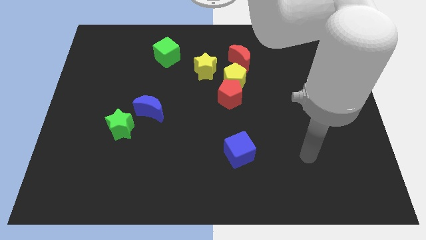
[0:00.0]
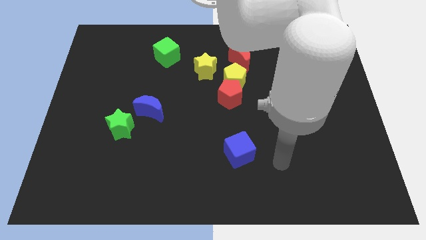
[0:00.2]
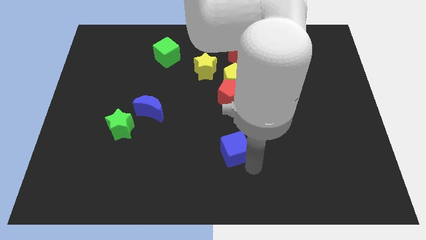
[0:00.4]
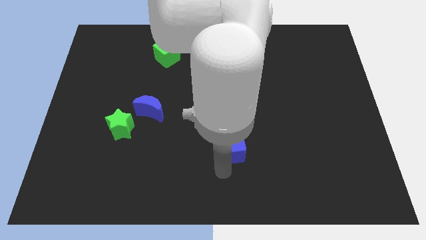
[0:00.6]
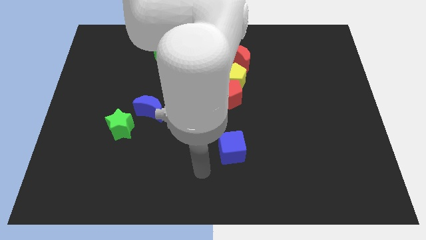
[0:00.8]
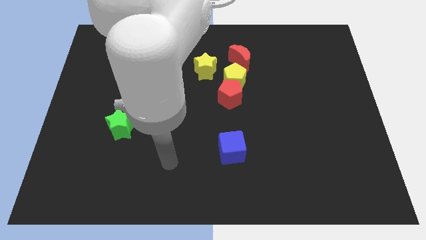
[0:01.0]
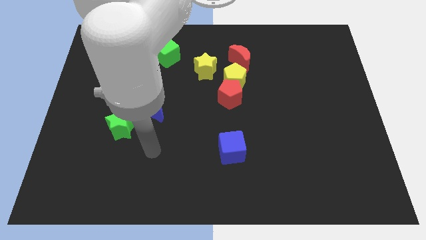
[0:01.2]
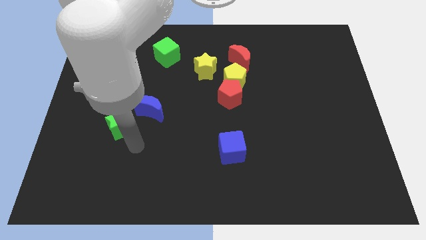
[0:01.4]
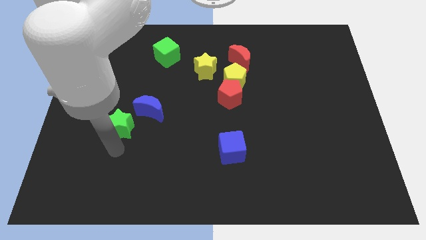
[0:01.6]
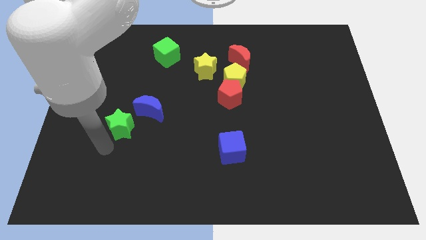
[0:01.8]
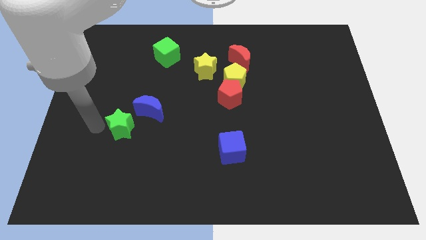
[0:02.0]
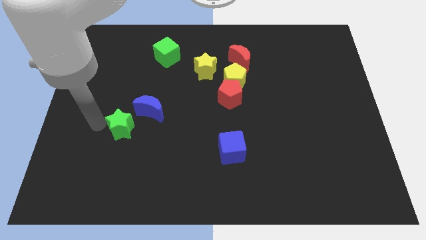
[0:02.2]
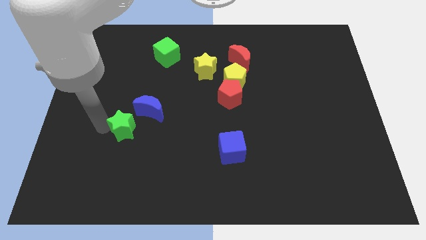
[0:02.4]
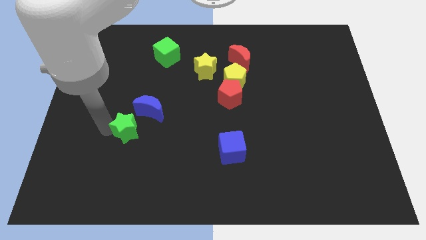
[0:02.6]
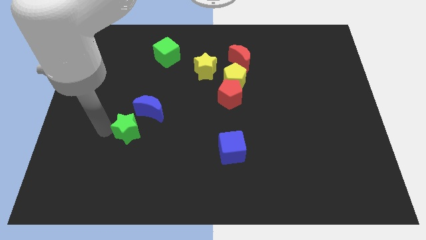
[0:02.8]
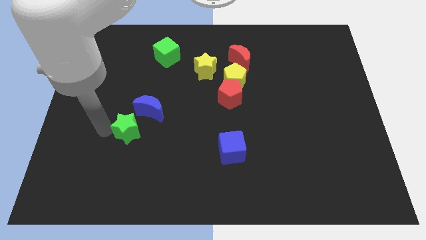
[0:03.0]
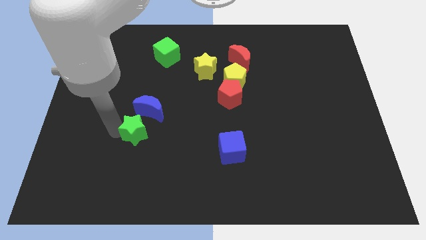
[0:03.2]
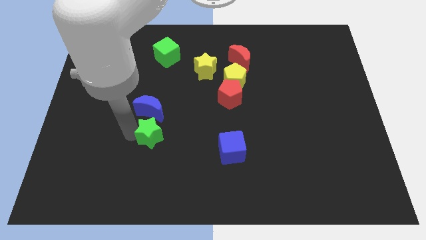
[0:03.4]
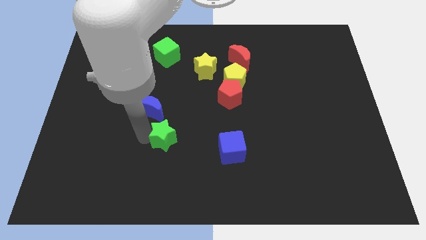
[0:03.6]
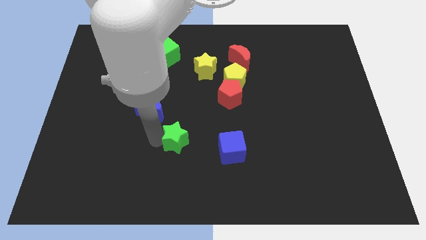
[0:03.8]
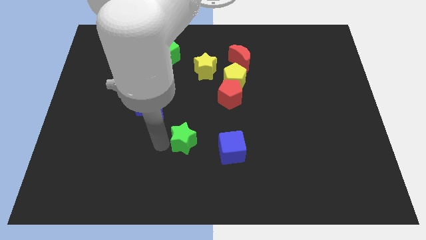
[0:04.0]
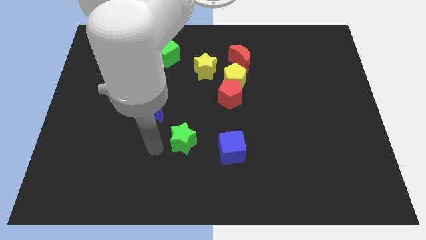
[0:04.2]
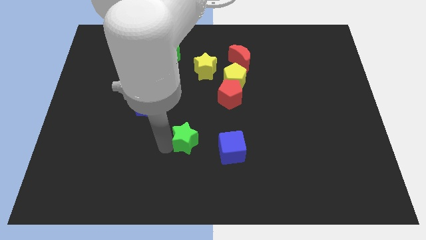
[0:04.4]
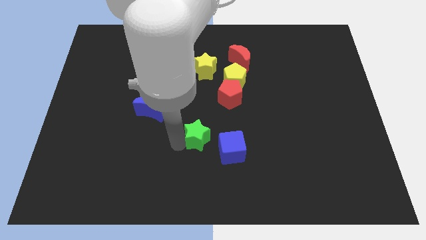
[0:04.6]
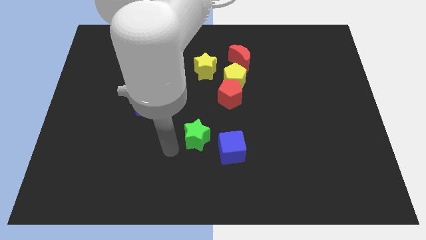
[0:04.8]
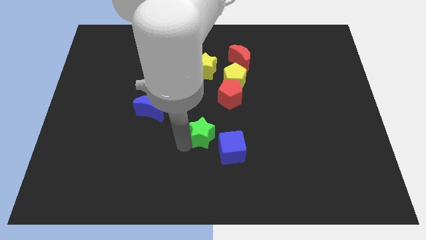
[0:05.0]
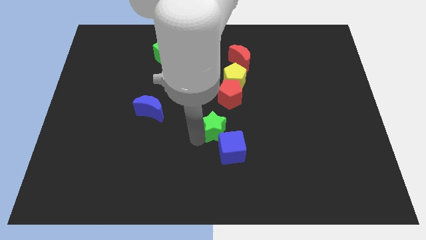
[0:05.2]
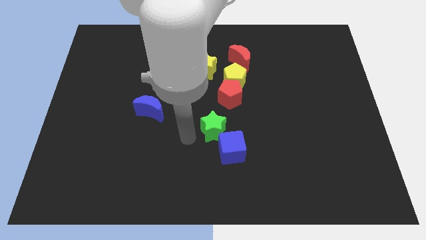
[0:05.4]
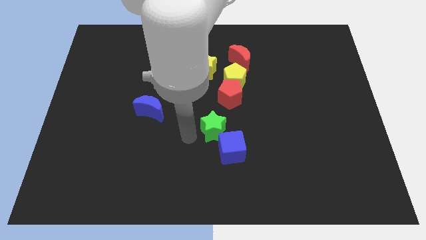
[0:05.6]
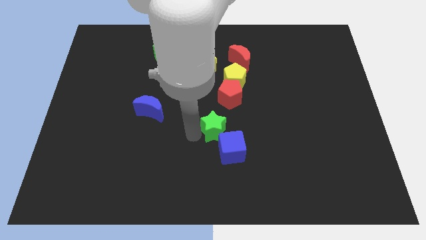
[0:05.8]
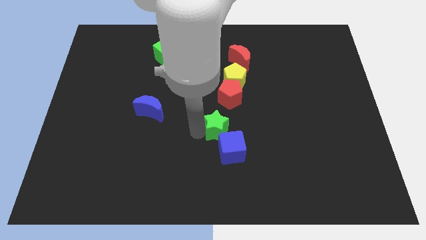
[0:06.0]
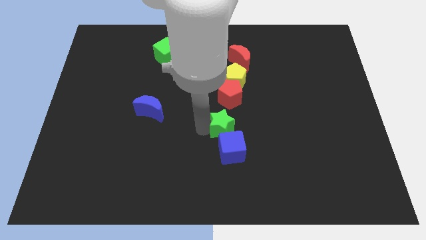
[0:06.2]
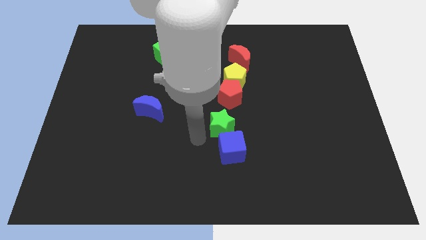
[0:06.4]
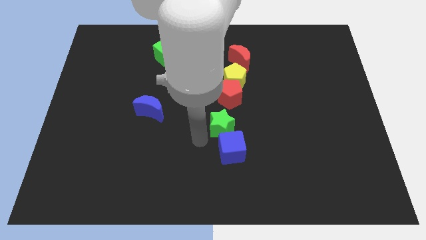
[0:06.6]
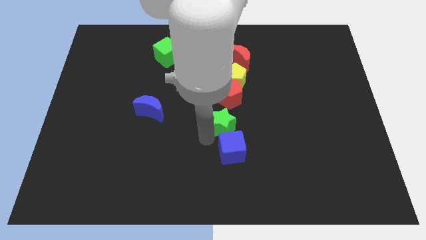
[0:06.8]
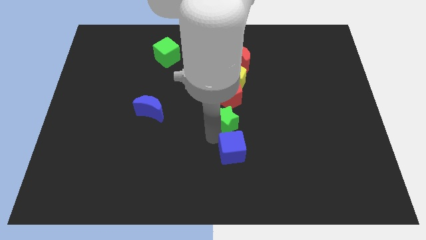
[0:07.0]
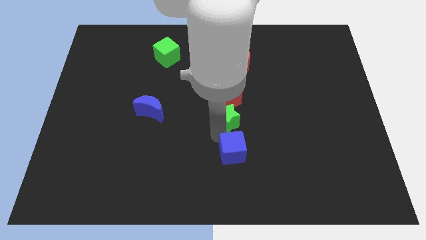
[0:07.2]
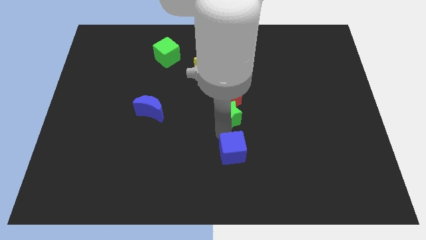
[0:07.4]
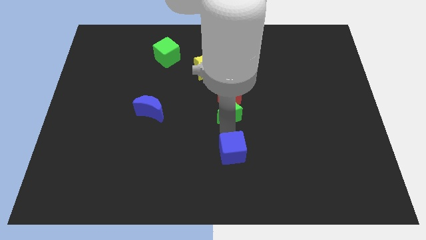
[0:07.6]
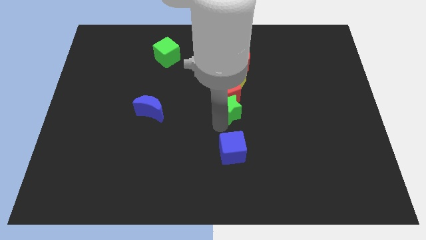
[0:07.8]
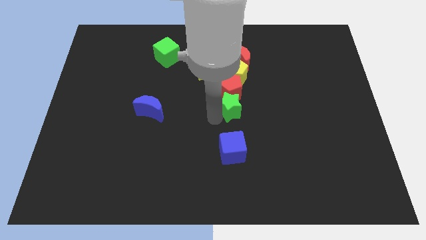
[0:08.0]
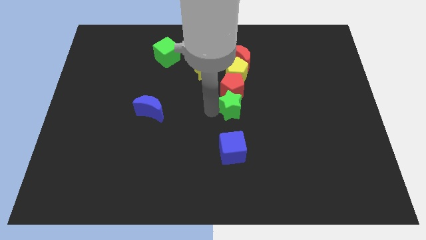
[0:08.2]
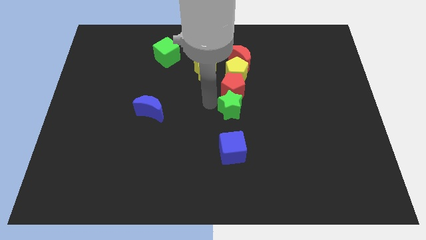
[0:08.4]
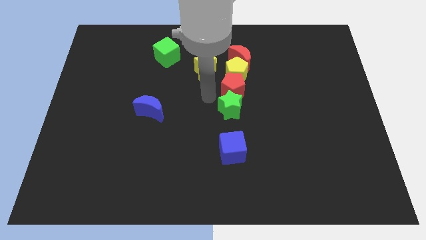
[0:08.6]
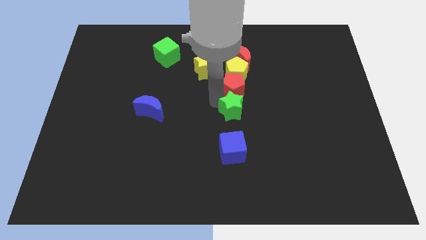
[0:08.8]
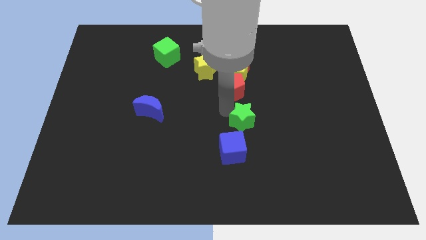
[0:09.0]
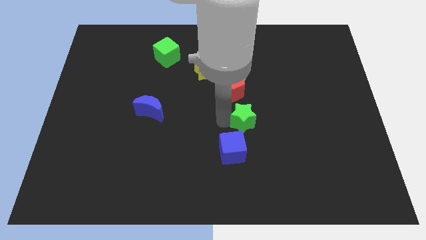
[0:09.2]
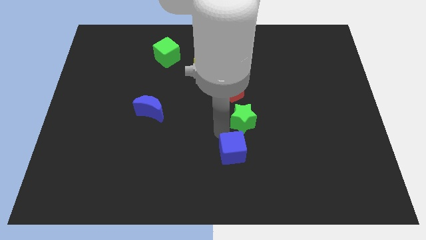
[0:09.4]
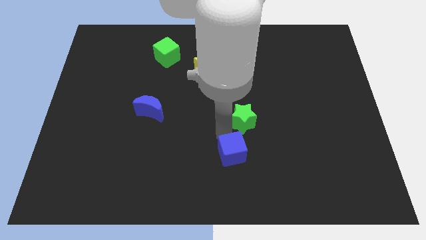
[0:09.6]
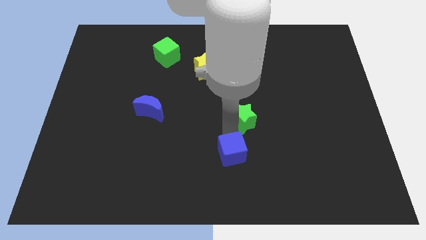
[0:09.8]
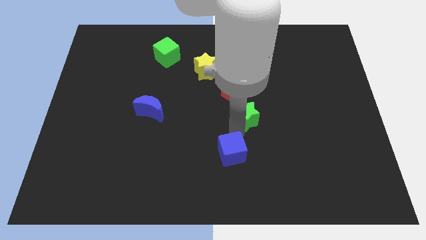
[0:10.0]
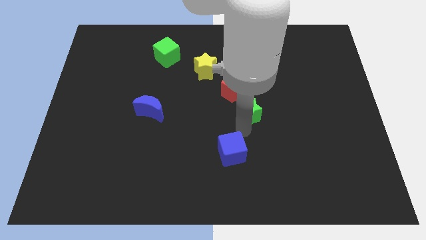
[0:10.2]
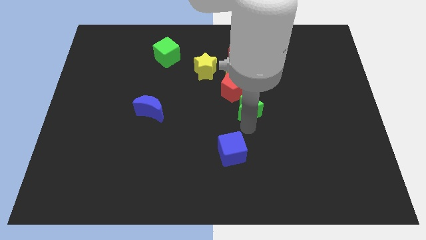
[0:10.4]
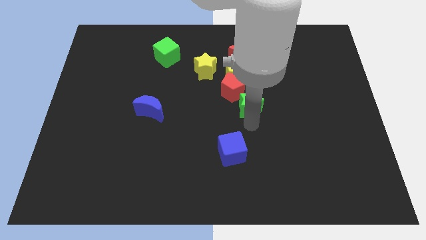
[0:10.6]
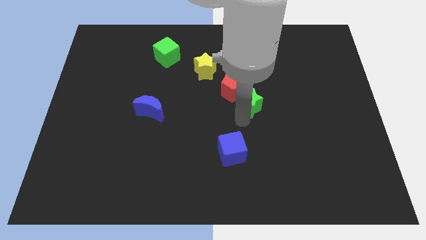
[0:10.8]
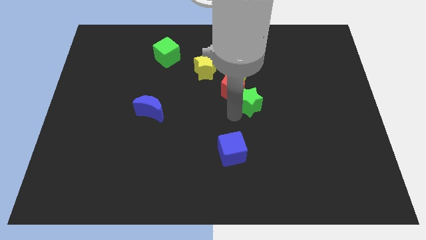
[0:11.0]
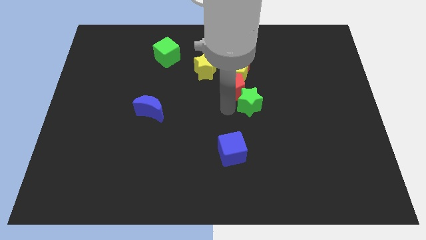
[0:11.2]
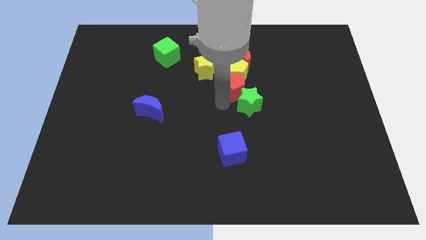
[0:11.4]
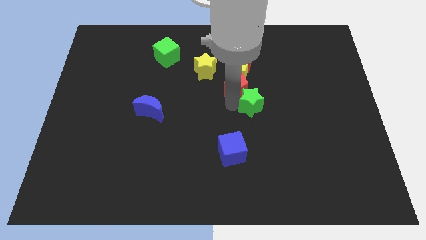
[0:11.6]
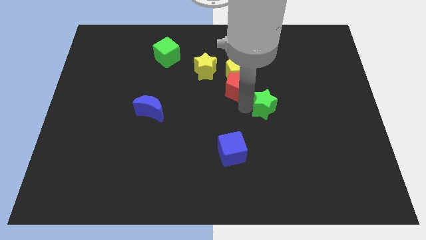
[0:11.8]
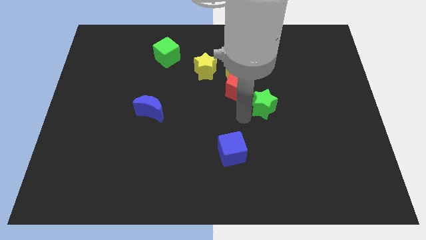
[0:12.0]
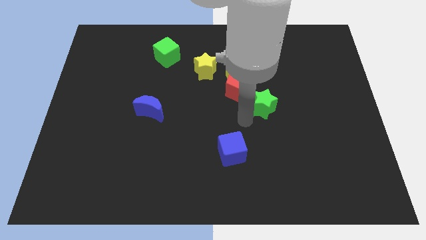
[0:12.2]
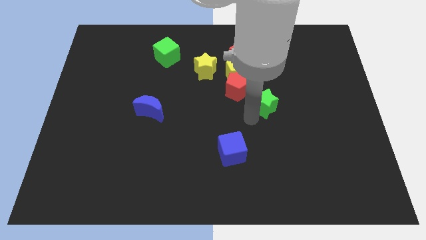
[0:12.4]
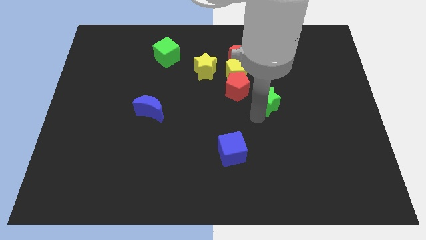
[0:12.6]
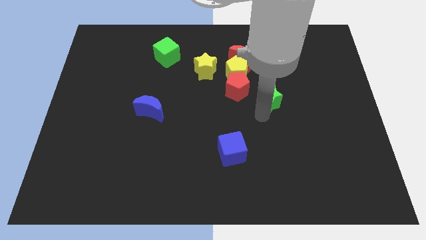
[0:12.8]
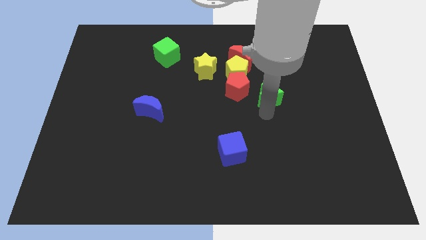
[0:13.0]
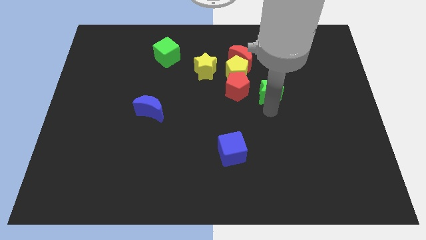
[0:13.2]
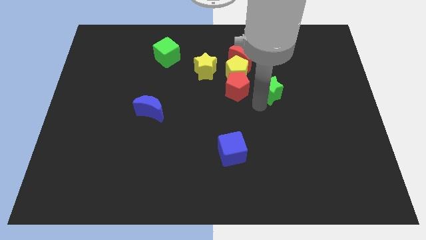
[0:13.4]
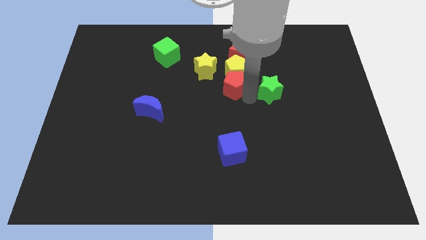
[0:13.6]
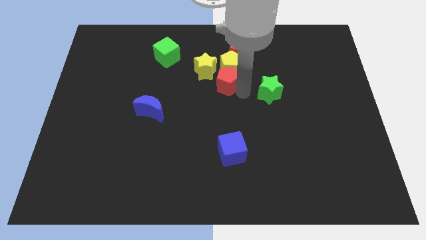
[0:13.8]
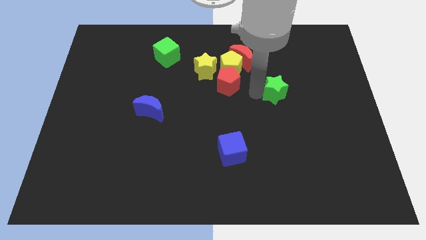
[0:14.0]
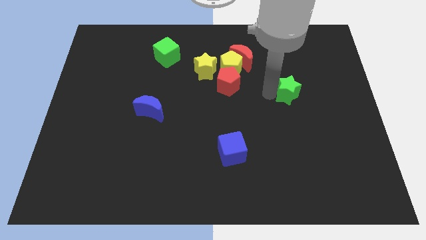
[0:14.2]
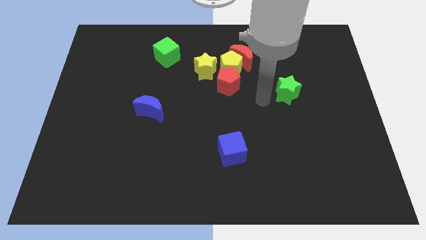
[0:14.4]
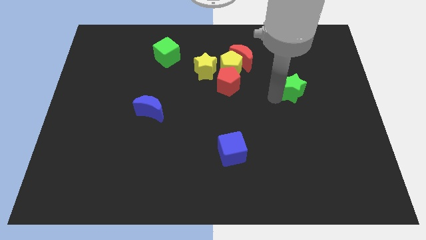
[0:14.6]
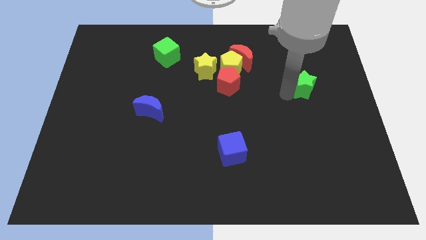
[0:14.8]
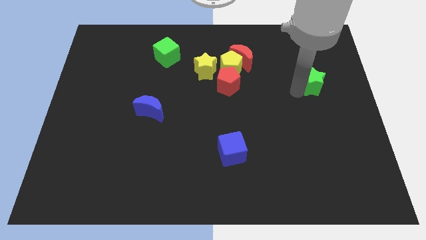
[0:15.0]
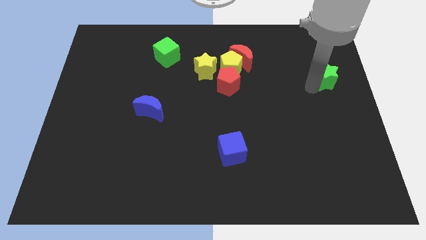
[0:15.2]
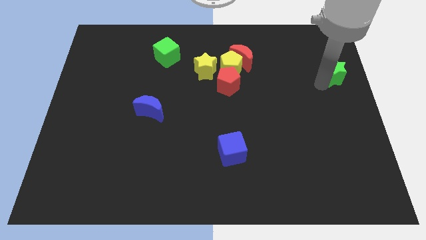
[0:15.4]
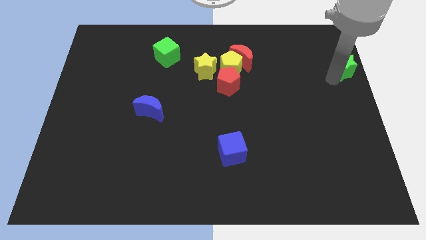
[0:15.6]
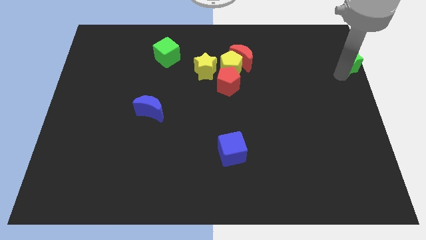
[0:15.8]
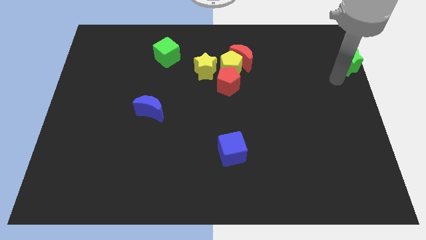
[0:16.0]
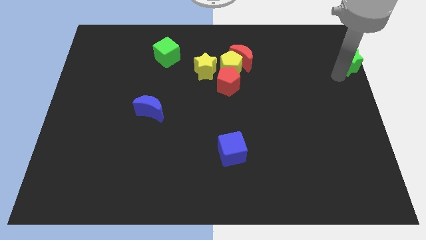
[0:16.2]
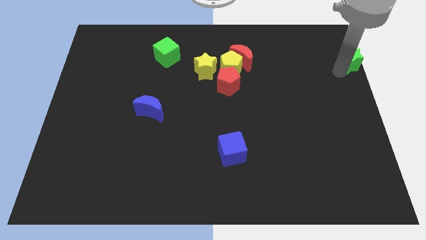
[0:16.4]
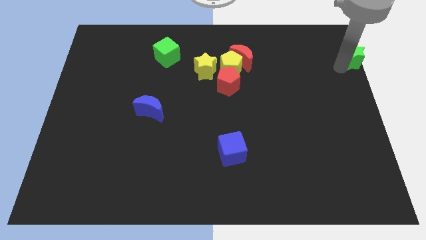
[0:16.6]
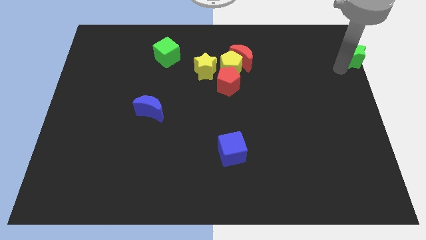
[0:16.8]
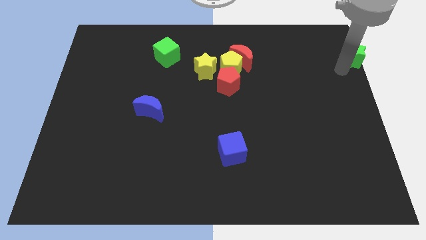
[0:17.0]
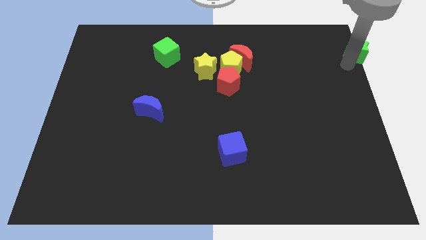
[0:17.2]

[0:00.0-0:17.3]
put the green star to the top right of the board
